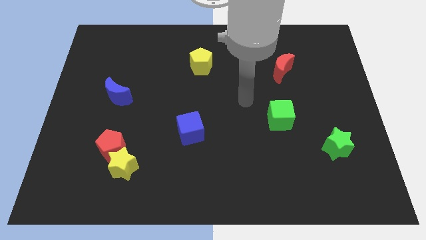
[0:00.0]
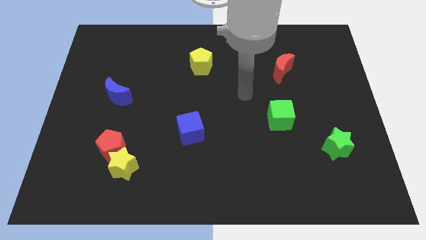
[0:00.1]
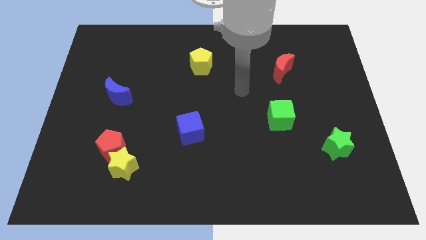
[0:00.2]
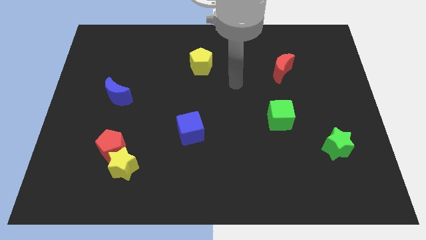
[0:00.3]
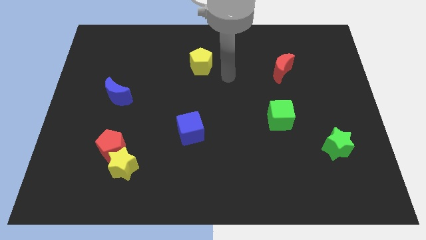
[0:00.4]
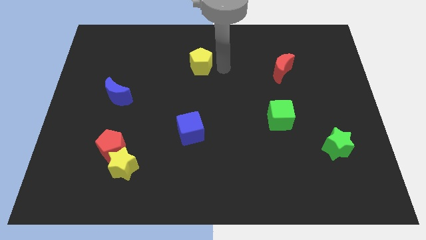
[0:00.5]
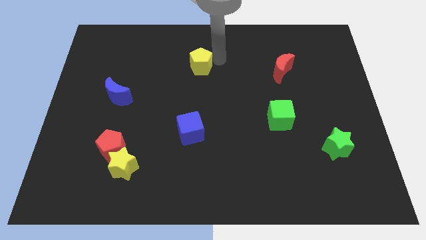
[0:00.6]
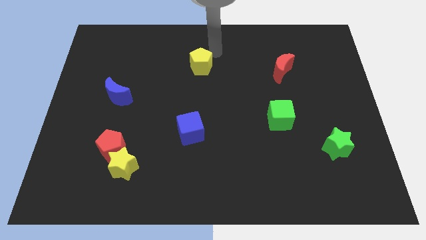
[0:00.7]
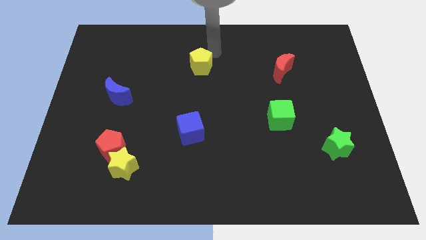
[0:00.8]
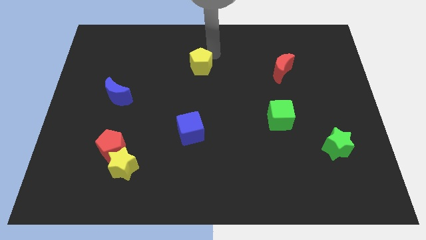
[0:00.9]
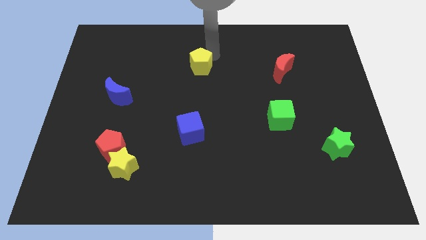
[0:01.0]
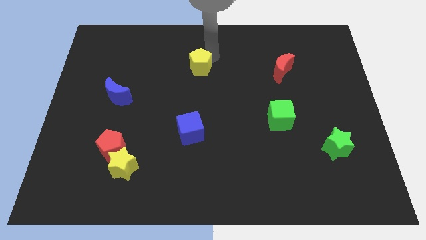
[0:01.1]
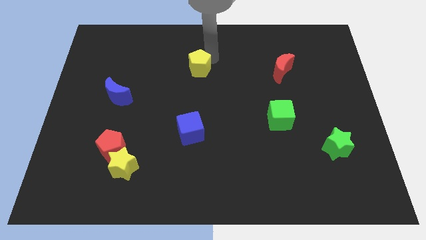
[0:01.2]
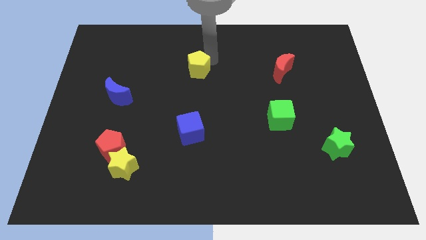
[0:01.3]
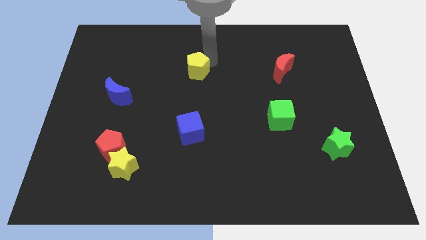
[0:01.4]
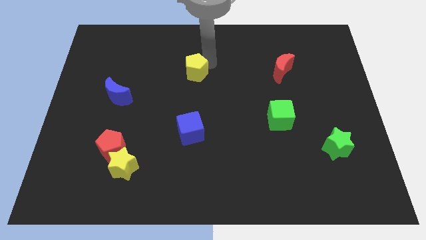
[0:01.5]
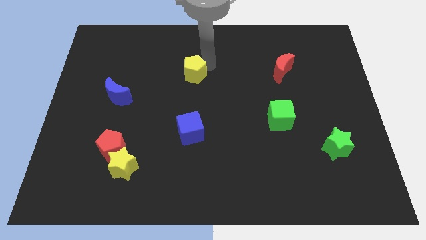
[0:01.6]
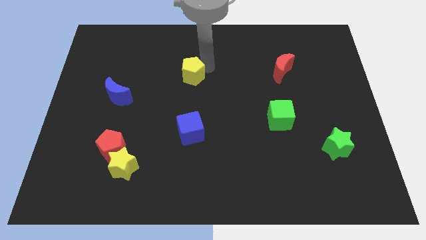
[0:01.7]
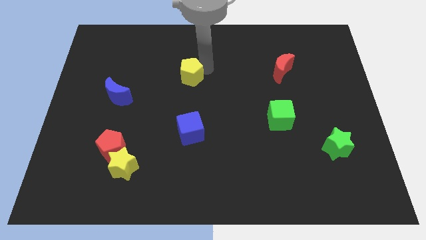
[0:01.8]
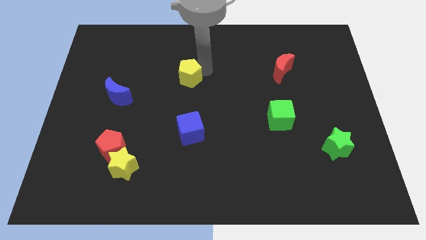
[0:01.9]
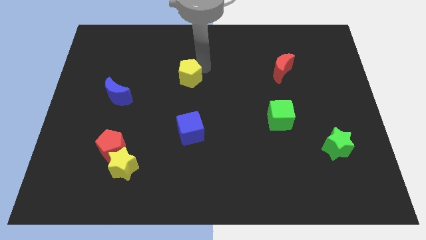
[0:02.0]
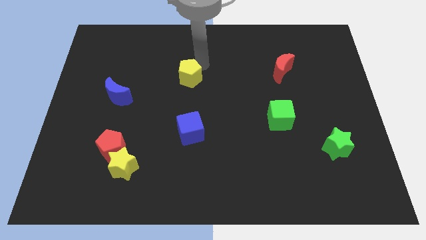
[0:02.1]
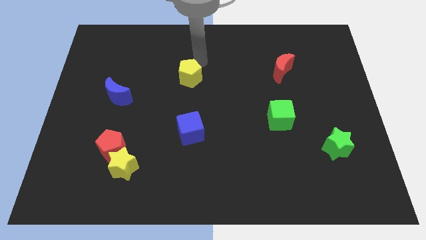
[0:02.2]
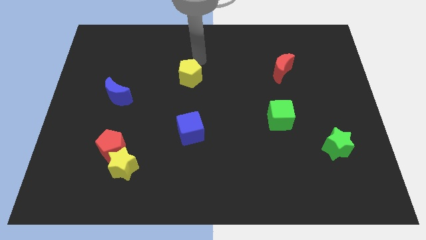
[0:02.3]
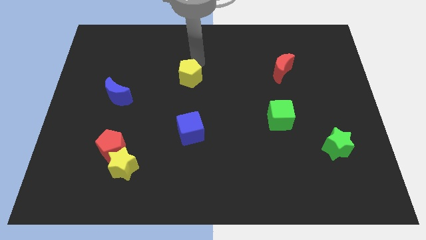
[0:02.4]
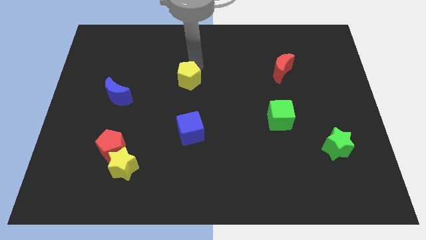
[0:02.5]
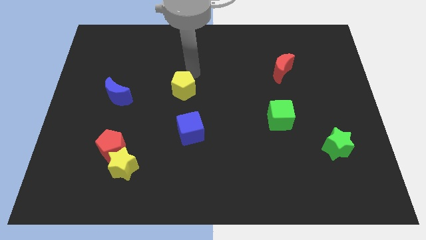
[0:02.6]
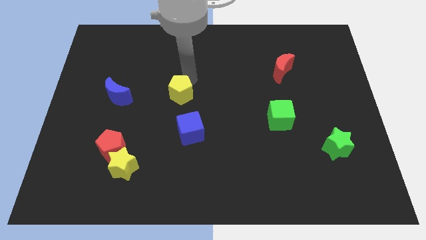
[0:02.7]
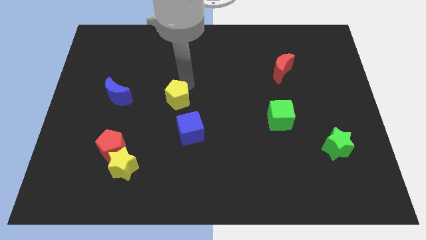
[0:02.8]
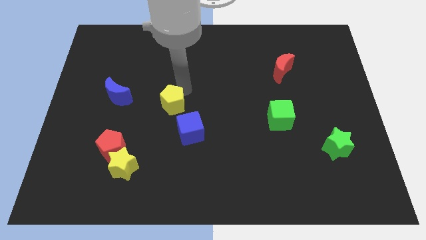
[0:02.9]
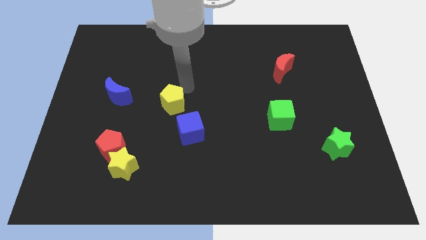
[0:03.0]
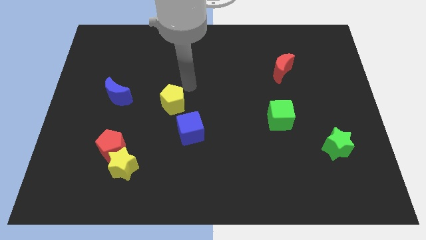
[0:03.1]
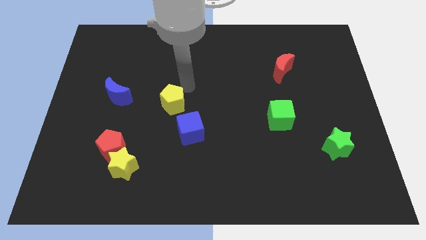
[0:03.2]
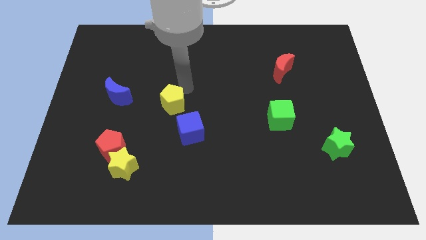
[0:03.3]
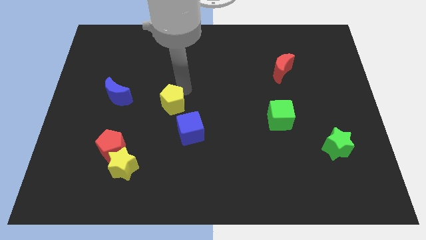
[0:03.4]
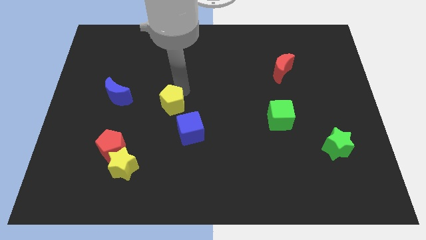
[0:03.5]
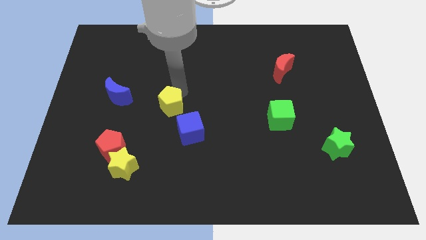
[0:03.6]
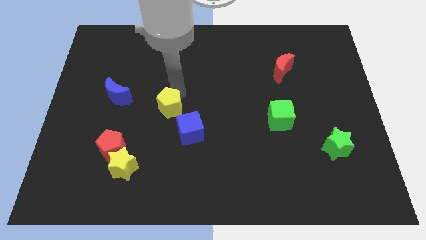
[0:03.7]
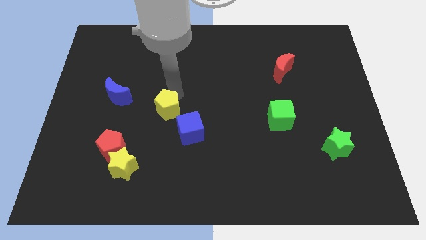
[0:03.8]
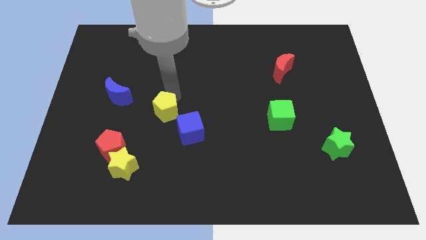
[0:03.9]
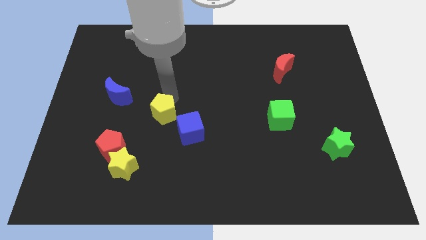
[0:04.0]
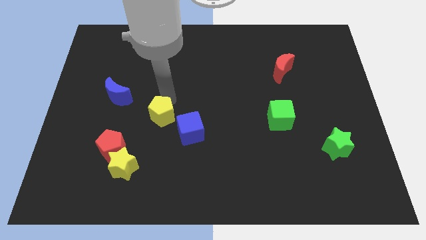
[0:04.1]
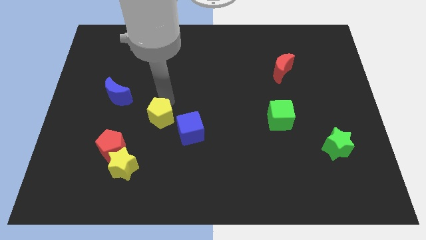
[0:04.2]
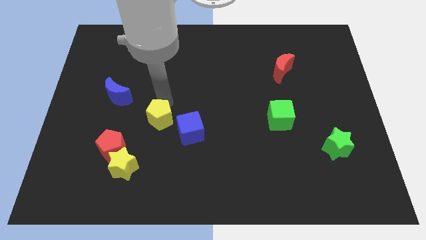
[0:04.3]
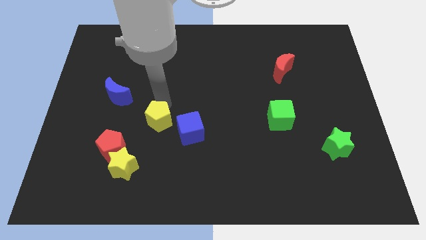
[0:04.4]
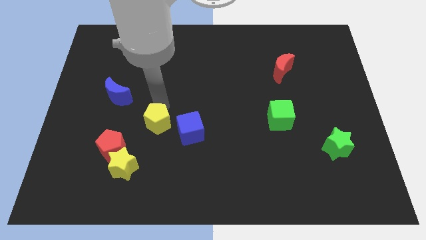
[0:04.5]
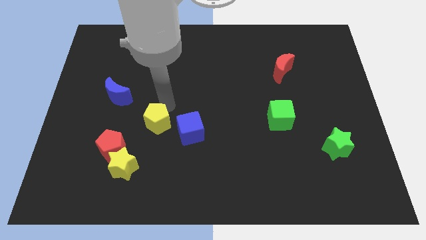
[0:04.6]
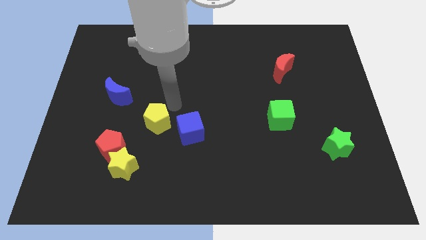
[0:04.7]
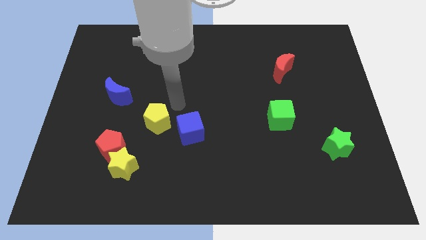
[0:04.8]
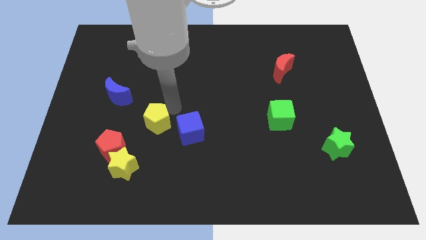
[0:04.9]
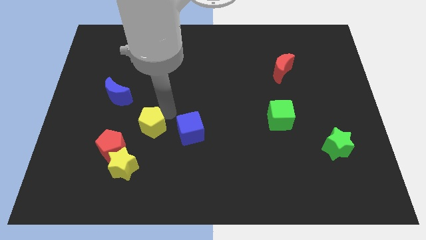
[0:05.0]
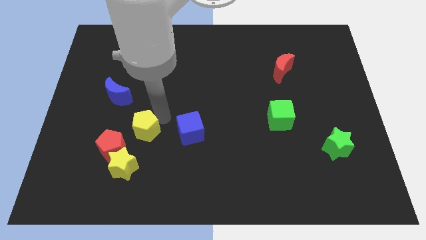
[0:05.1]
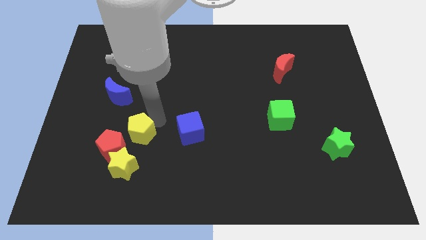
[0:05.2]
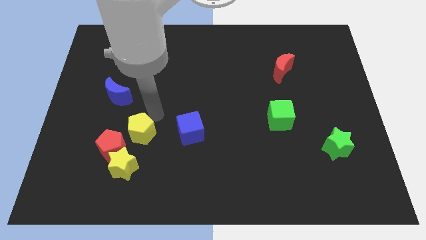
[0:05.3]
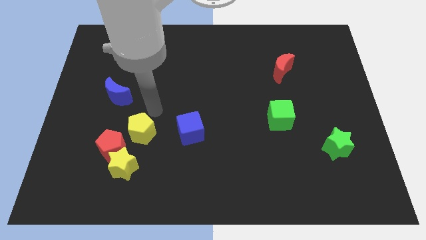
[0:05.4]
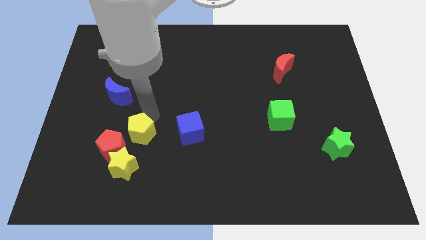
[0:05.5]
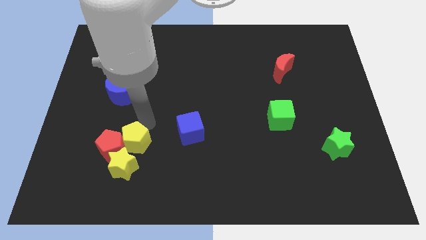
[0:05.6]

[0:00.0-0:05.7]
put the yellow pentagon to the yellow star

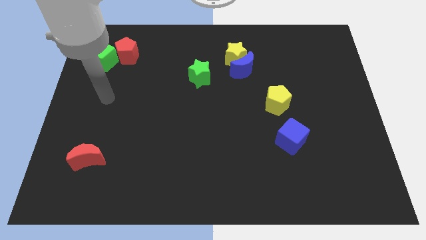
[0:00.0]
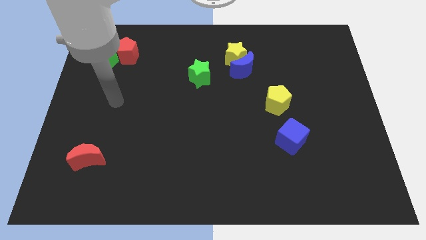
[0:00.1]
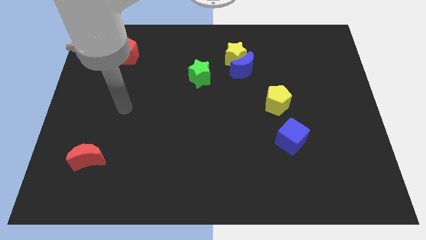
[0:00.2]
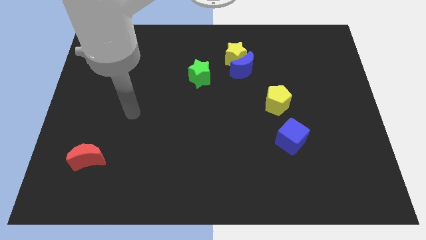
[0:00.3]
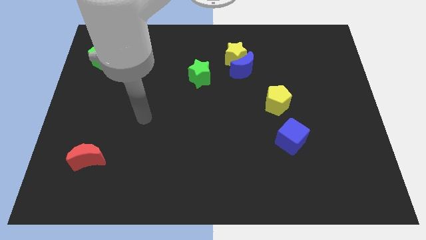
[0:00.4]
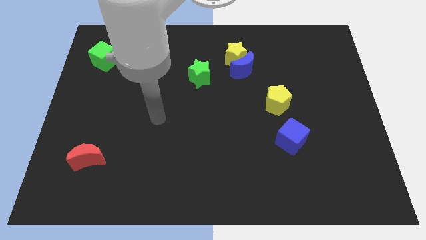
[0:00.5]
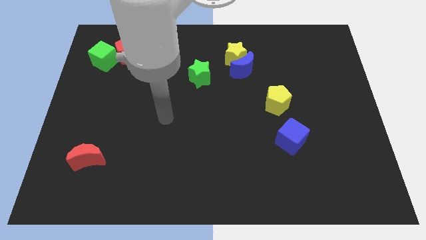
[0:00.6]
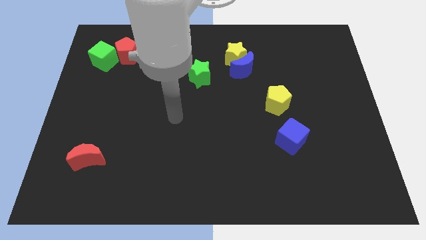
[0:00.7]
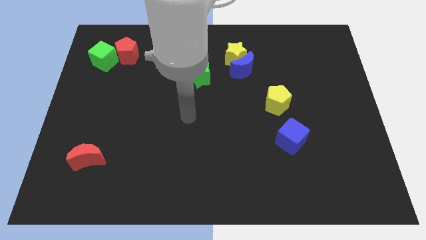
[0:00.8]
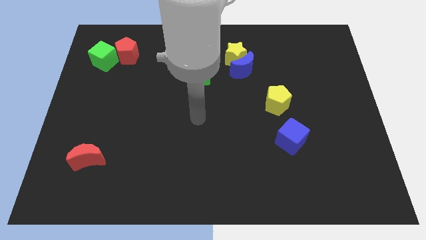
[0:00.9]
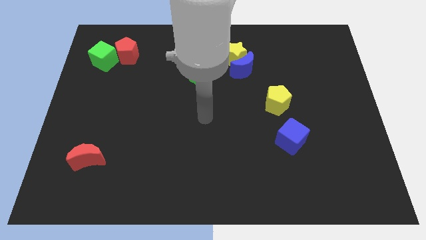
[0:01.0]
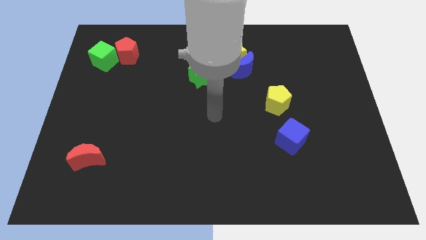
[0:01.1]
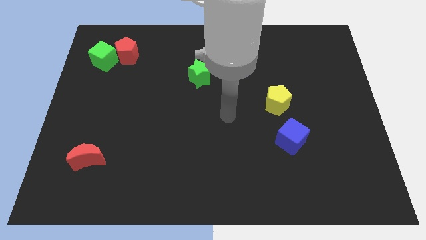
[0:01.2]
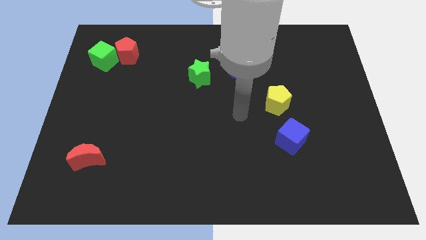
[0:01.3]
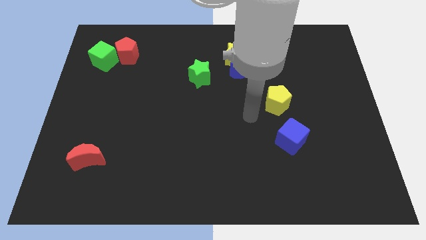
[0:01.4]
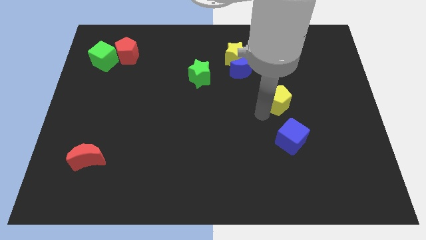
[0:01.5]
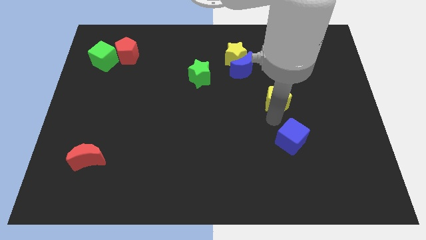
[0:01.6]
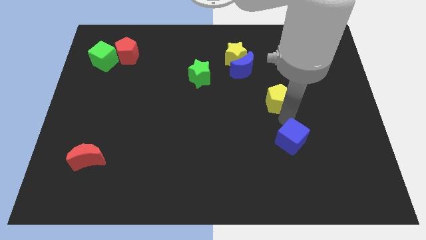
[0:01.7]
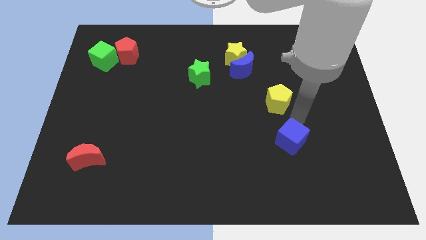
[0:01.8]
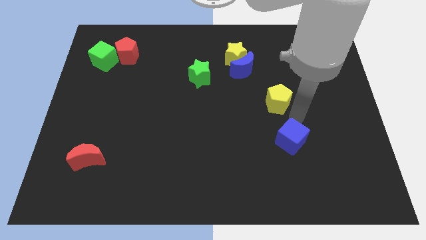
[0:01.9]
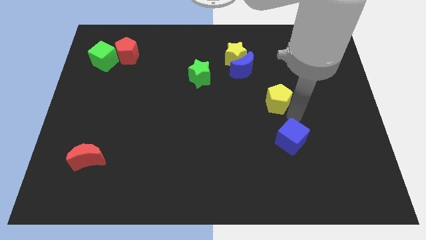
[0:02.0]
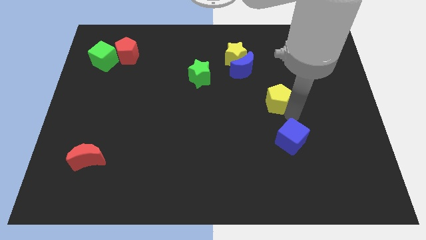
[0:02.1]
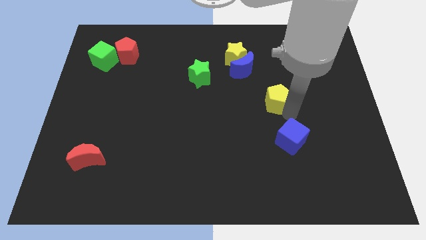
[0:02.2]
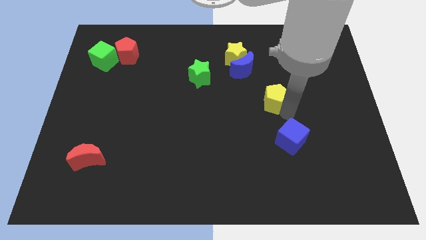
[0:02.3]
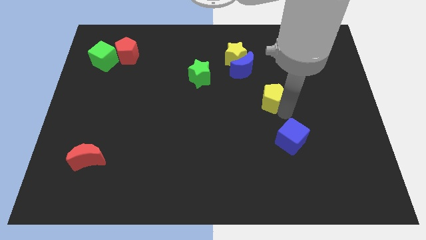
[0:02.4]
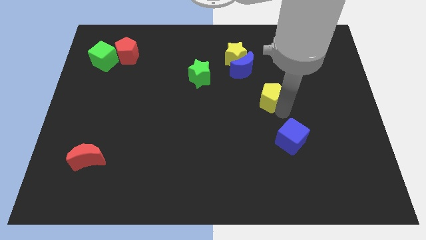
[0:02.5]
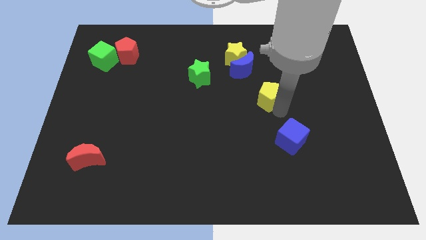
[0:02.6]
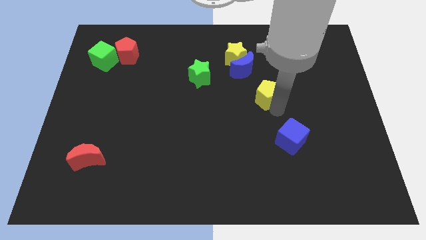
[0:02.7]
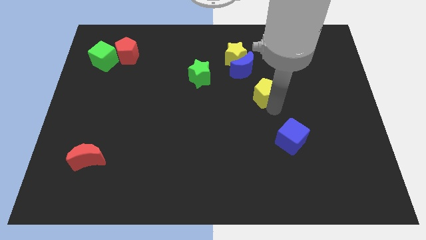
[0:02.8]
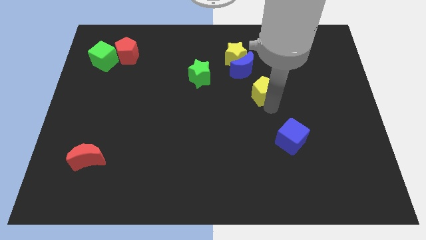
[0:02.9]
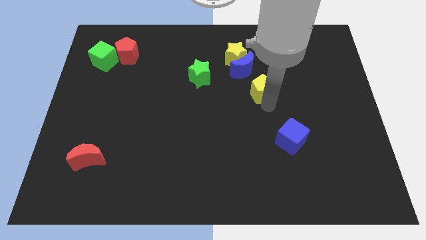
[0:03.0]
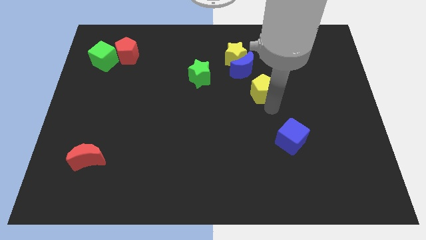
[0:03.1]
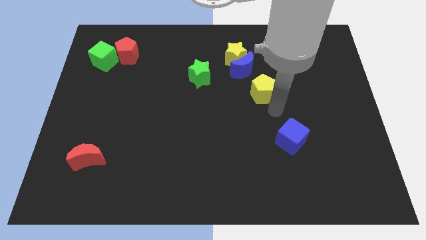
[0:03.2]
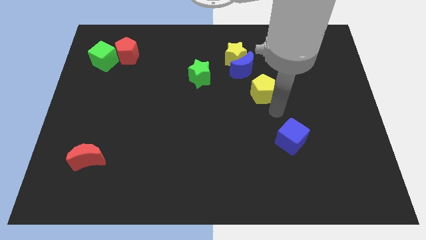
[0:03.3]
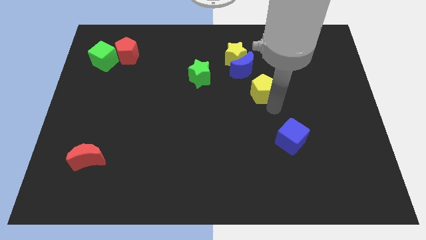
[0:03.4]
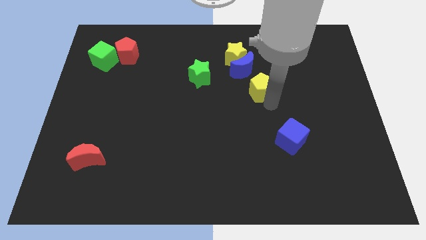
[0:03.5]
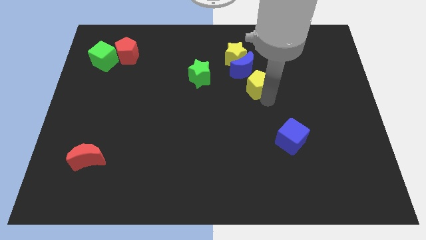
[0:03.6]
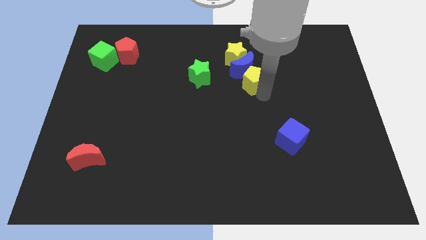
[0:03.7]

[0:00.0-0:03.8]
move the yellow pentagon to the blue moon
